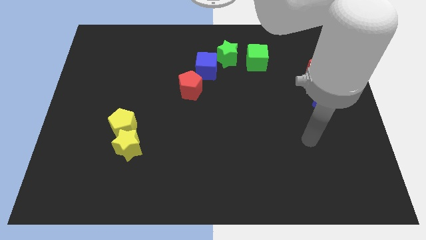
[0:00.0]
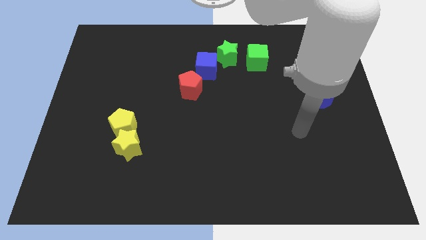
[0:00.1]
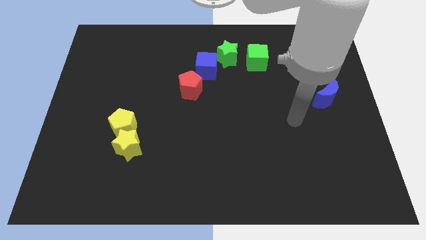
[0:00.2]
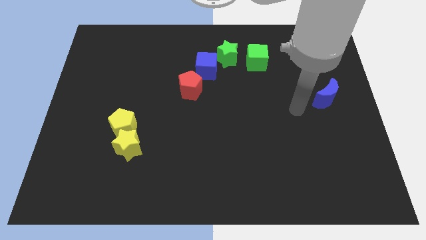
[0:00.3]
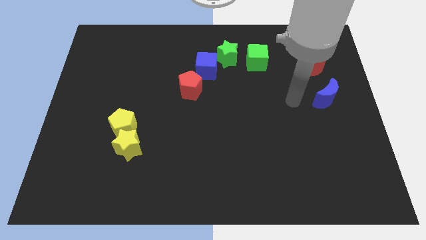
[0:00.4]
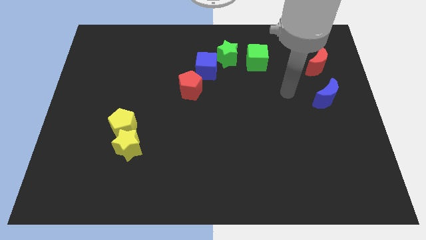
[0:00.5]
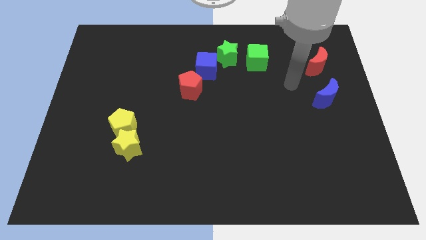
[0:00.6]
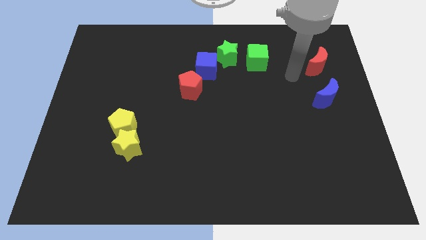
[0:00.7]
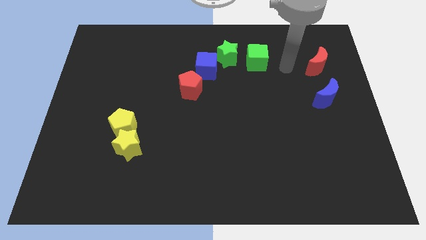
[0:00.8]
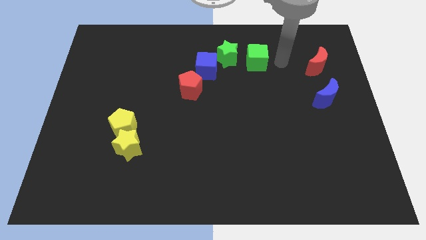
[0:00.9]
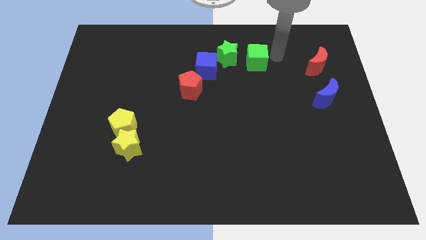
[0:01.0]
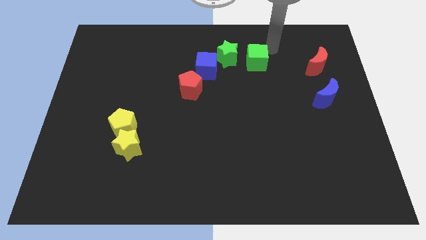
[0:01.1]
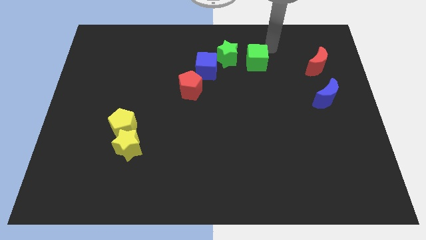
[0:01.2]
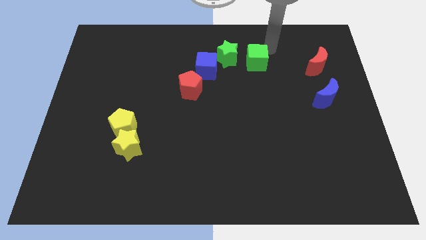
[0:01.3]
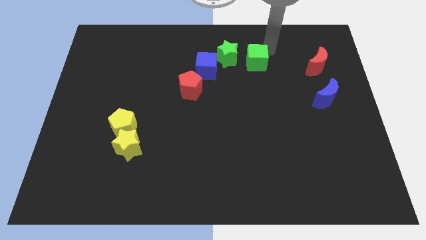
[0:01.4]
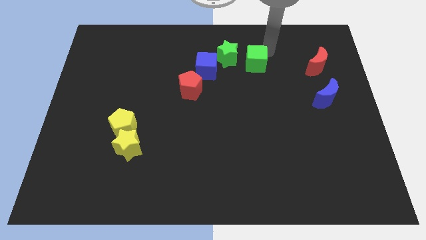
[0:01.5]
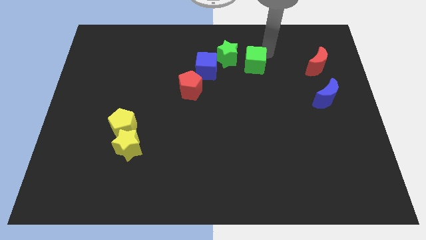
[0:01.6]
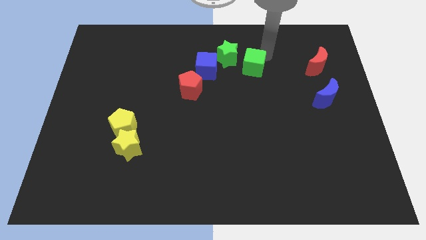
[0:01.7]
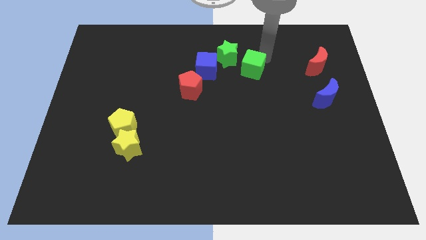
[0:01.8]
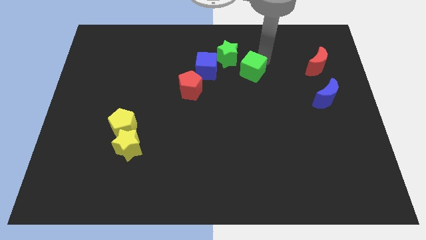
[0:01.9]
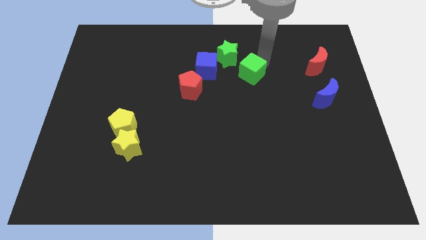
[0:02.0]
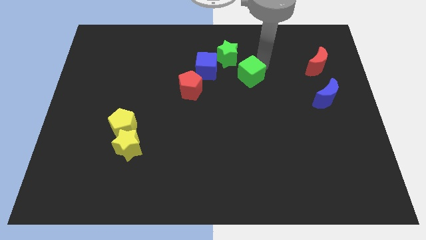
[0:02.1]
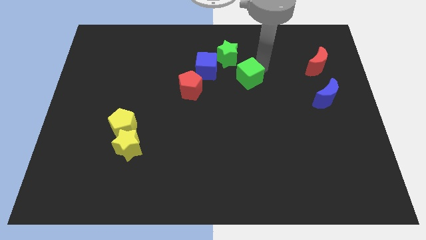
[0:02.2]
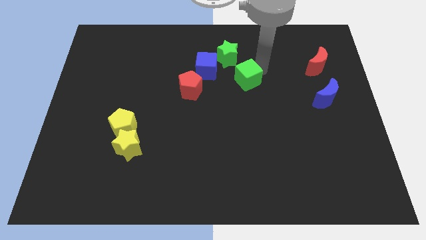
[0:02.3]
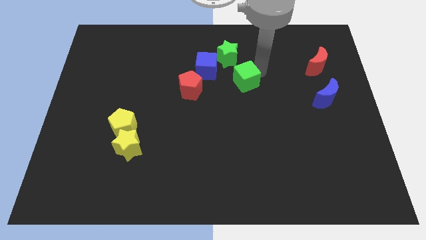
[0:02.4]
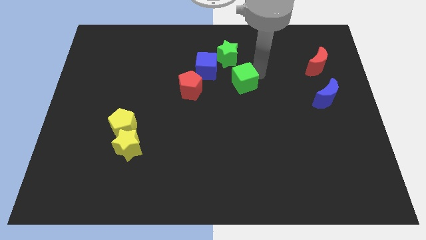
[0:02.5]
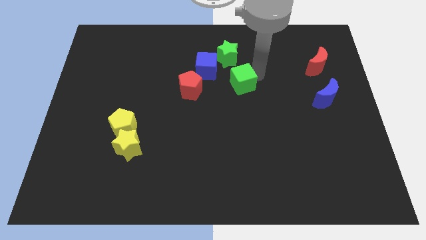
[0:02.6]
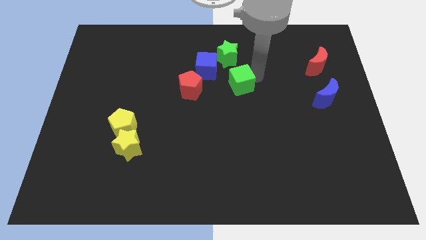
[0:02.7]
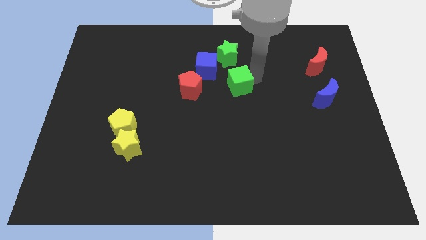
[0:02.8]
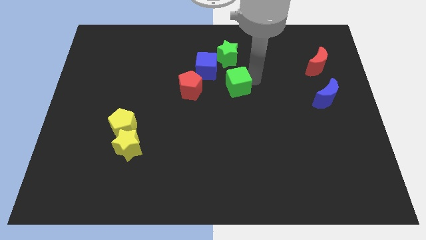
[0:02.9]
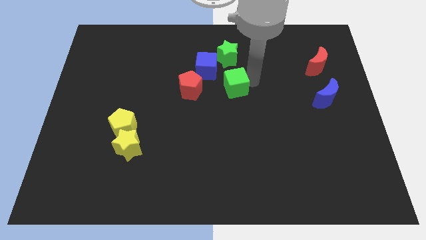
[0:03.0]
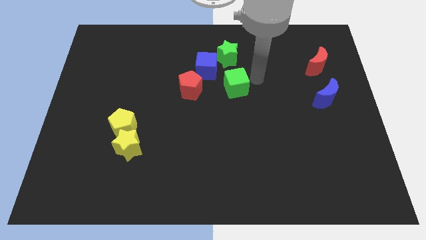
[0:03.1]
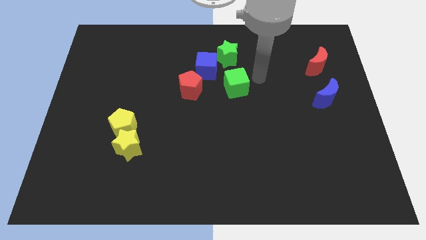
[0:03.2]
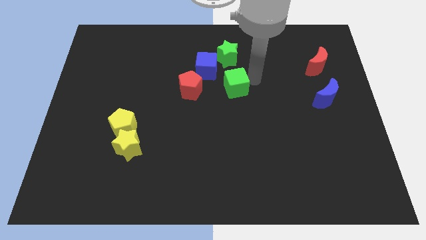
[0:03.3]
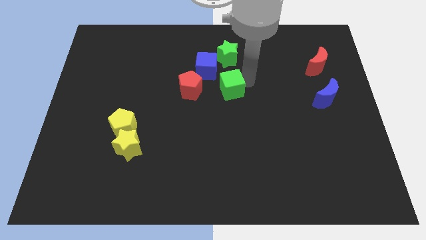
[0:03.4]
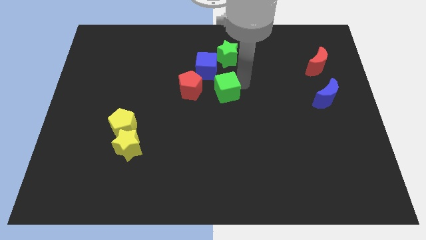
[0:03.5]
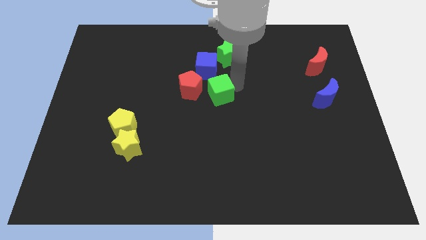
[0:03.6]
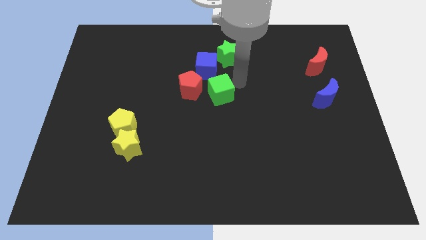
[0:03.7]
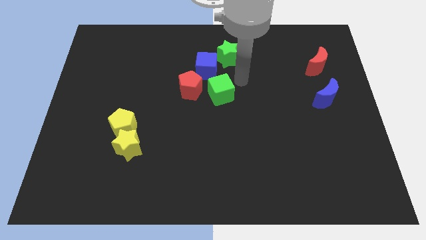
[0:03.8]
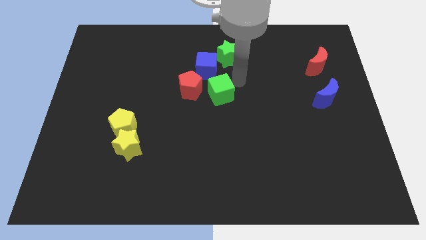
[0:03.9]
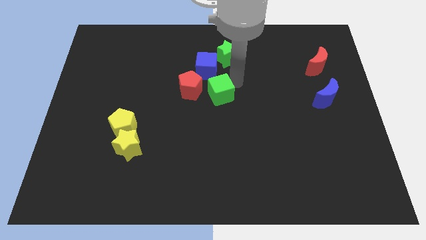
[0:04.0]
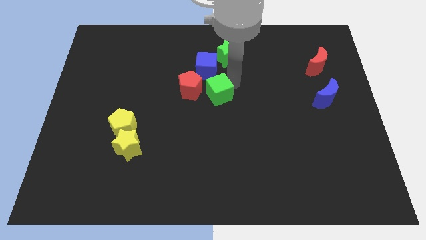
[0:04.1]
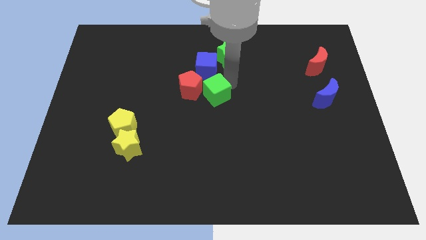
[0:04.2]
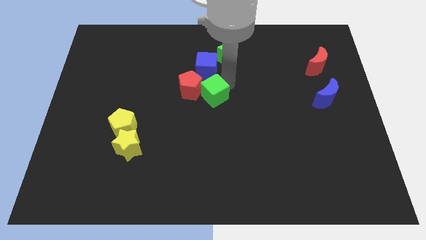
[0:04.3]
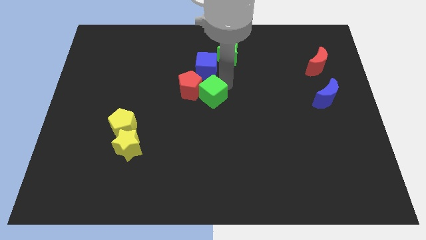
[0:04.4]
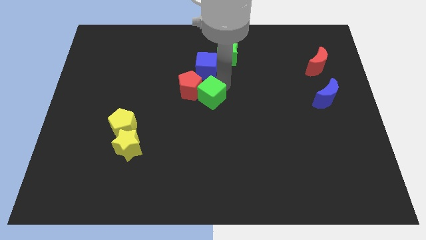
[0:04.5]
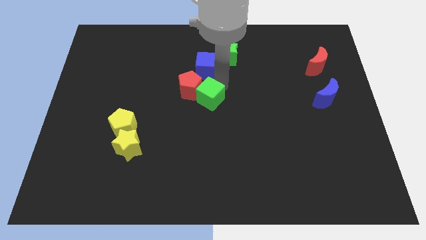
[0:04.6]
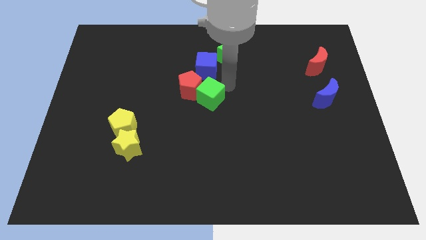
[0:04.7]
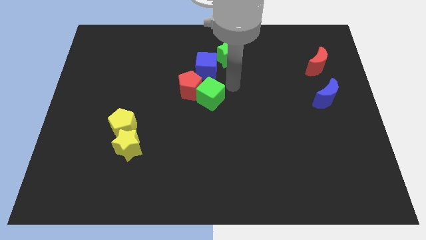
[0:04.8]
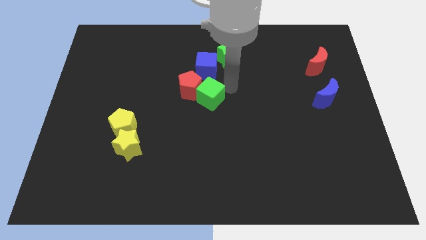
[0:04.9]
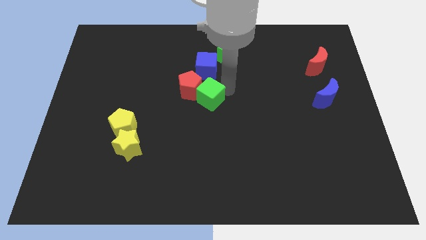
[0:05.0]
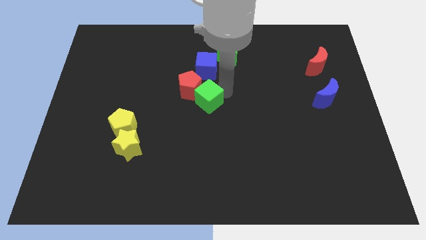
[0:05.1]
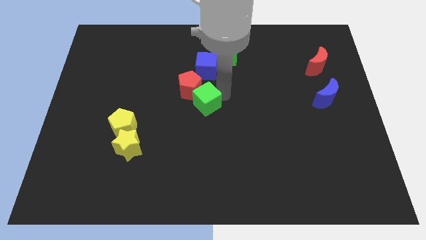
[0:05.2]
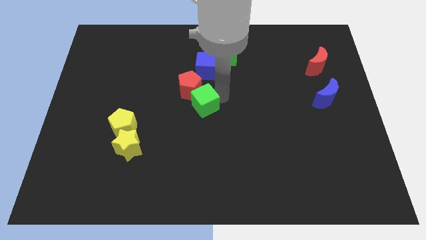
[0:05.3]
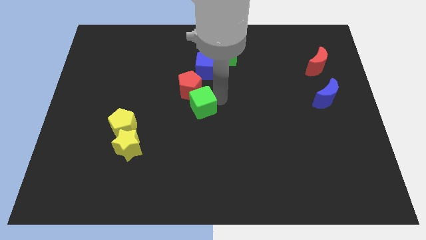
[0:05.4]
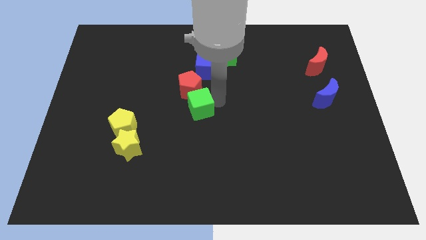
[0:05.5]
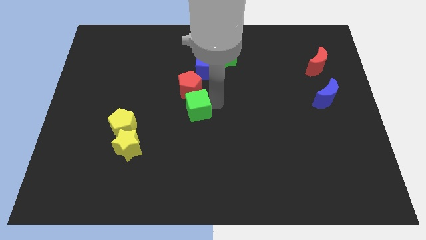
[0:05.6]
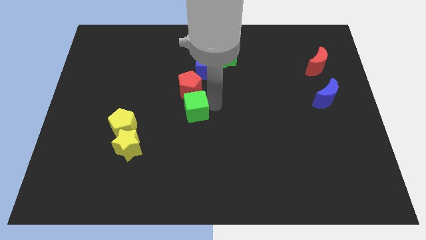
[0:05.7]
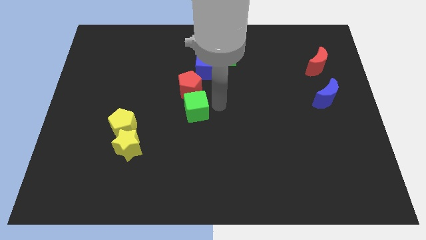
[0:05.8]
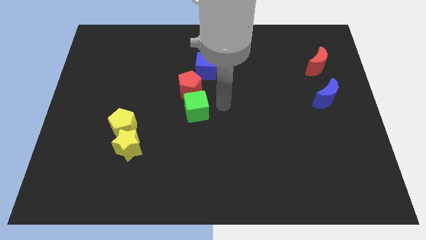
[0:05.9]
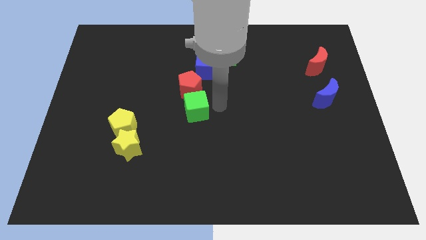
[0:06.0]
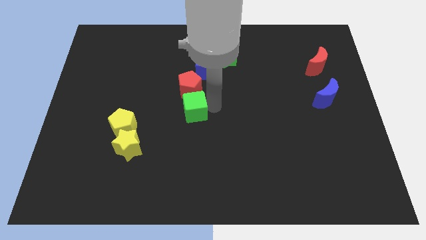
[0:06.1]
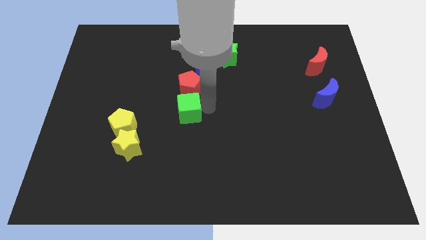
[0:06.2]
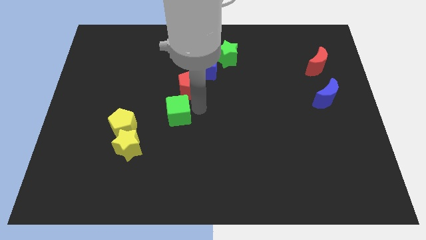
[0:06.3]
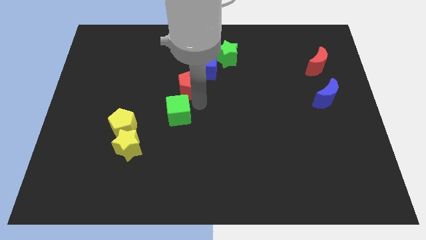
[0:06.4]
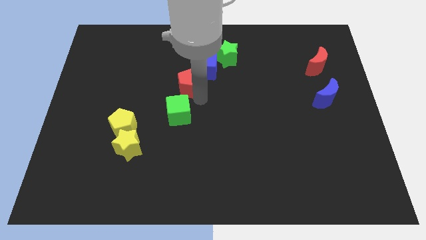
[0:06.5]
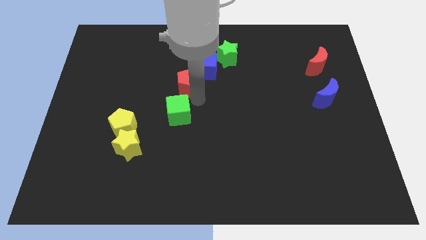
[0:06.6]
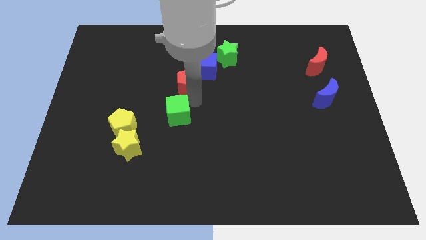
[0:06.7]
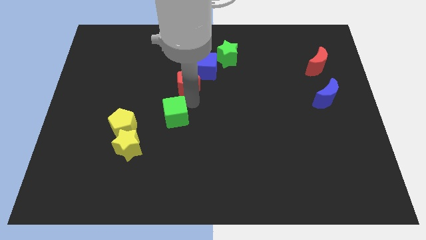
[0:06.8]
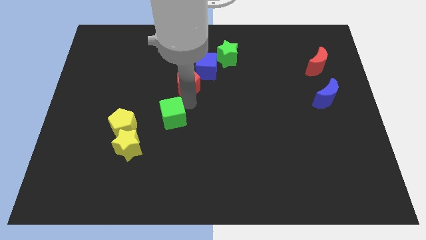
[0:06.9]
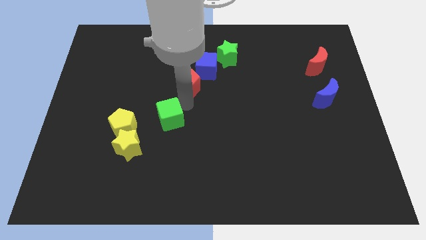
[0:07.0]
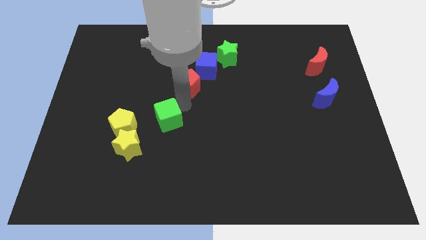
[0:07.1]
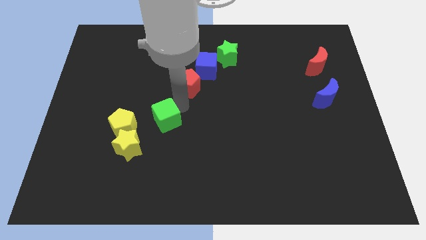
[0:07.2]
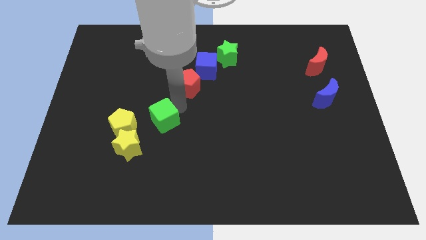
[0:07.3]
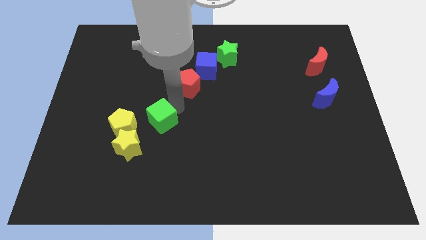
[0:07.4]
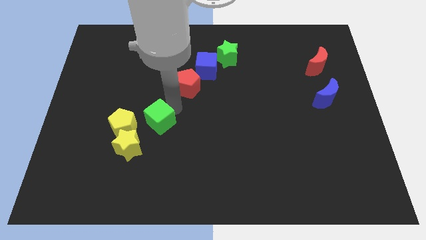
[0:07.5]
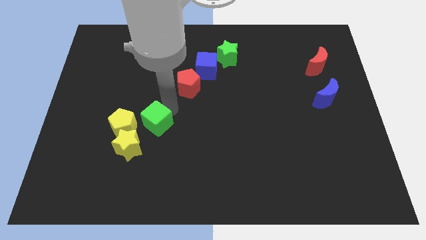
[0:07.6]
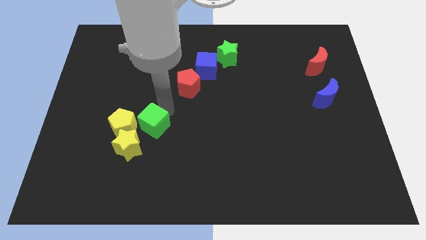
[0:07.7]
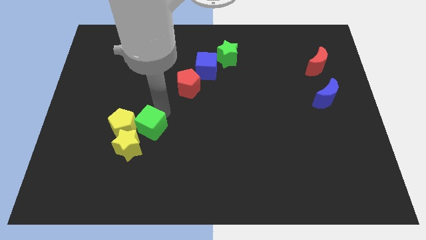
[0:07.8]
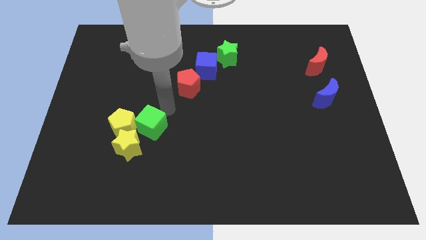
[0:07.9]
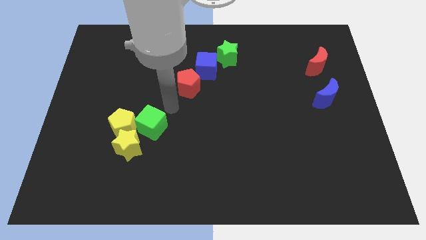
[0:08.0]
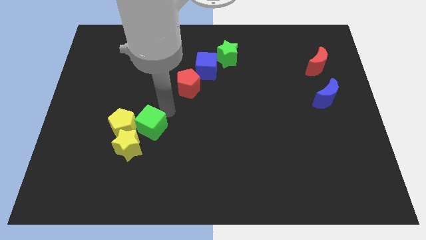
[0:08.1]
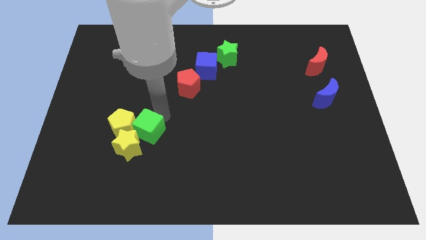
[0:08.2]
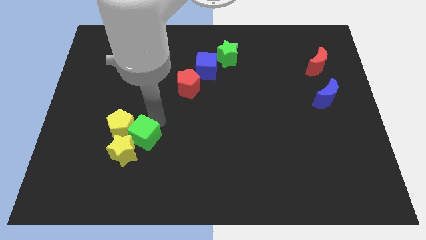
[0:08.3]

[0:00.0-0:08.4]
push the green cube close to the yellow star
